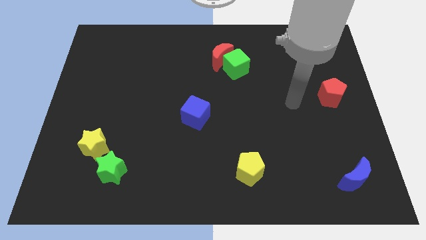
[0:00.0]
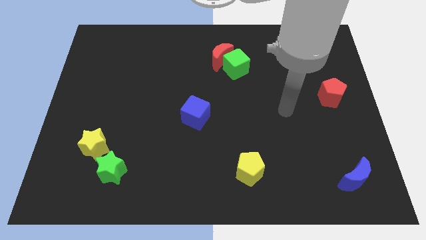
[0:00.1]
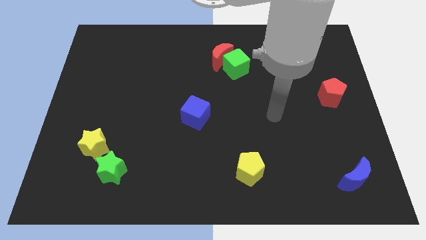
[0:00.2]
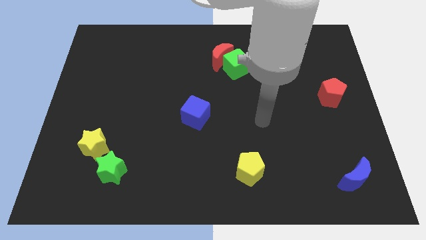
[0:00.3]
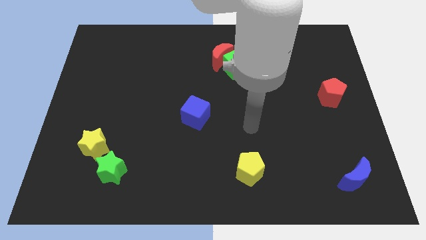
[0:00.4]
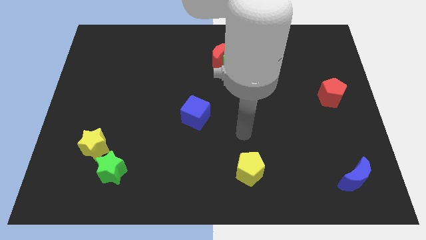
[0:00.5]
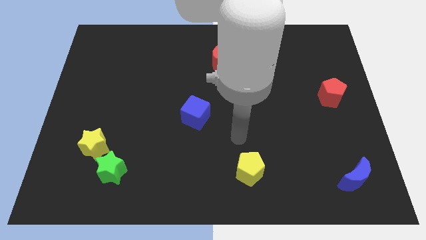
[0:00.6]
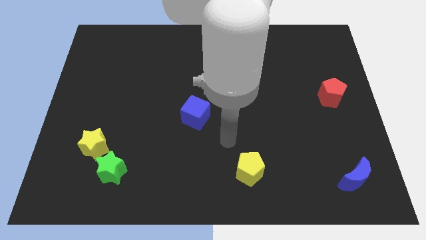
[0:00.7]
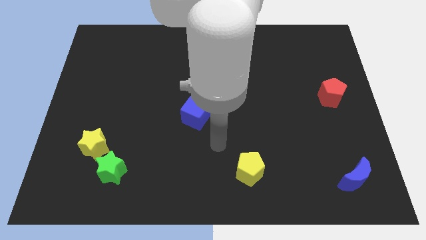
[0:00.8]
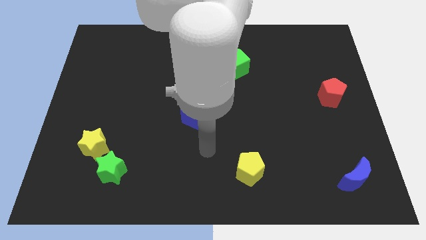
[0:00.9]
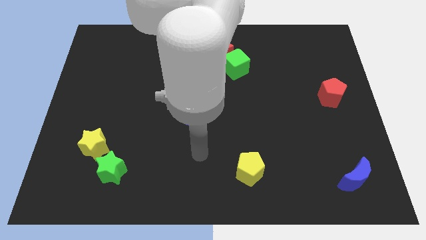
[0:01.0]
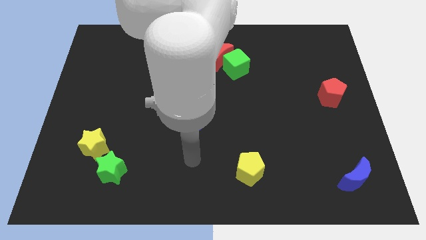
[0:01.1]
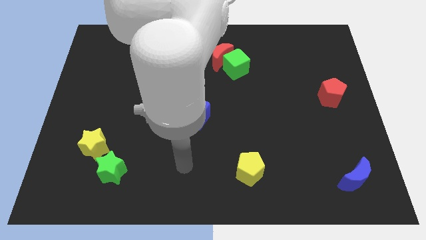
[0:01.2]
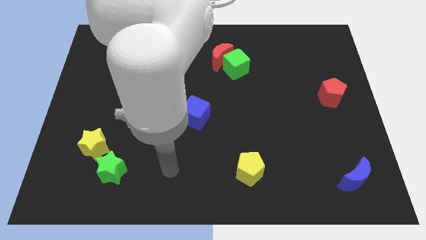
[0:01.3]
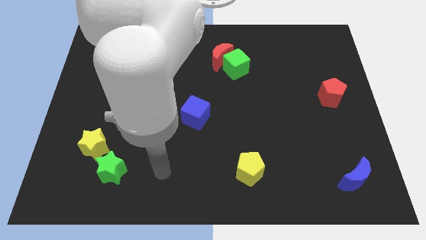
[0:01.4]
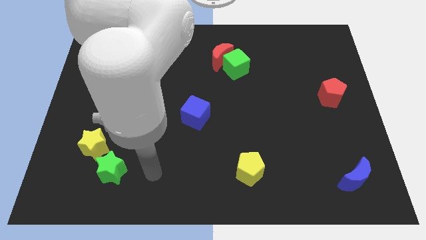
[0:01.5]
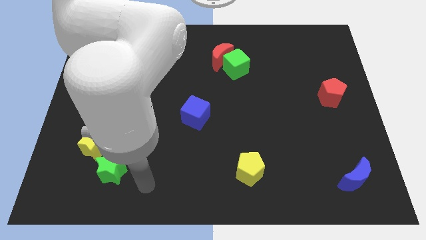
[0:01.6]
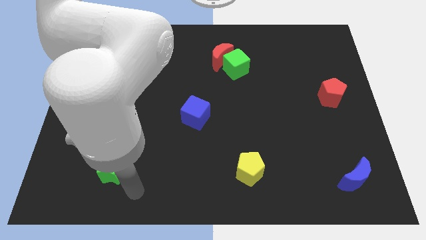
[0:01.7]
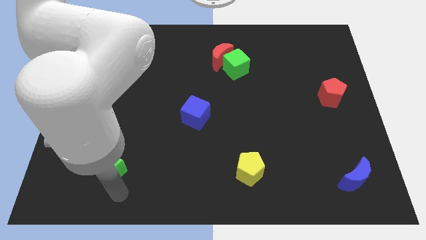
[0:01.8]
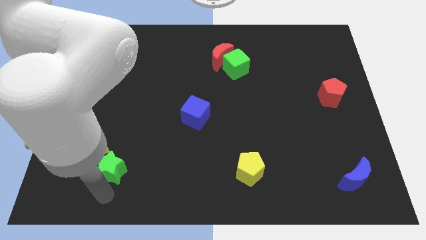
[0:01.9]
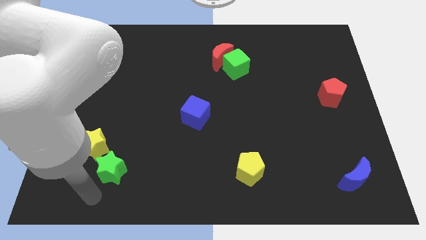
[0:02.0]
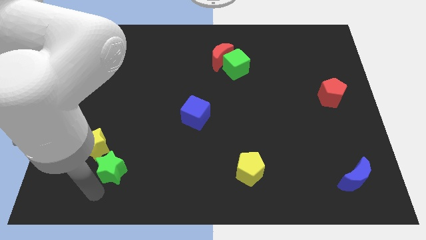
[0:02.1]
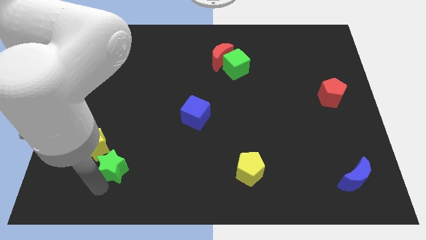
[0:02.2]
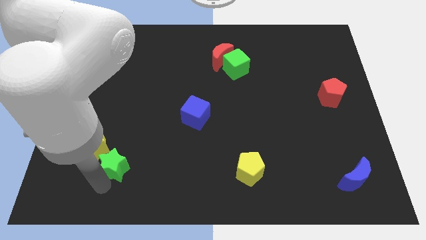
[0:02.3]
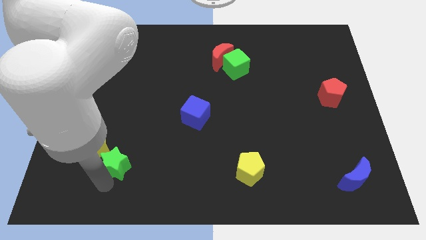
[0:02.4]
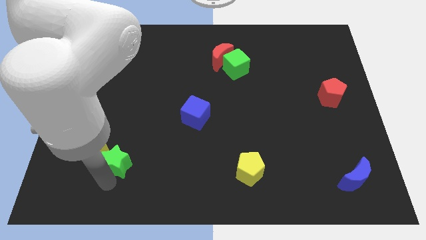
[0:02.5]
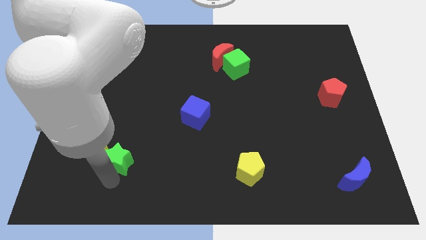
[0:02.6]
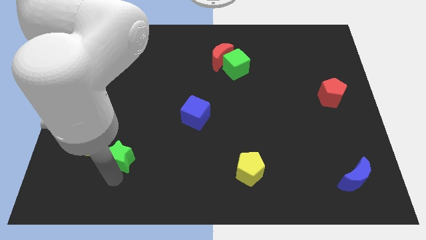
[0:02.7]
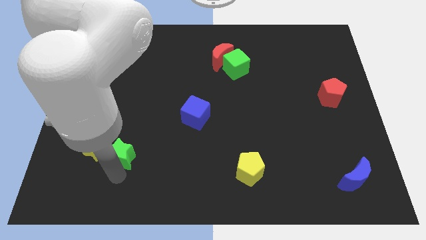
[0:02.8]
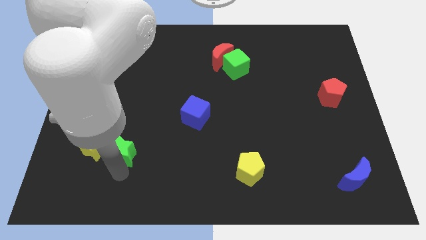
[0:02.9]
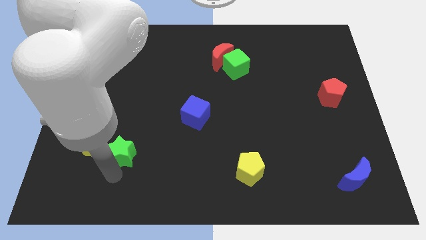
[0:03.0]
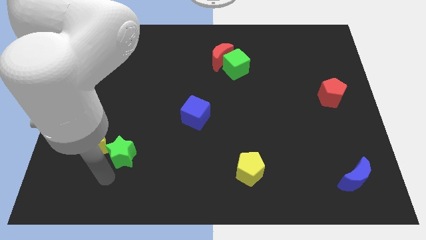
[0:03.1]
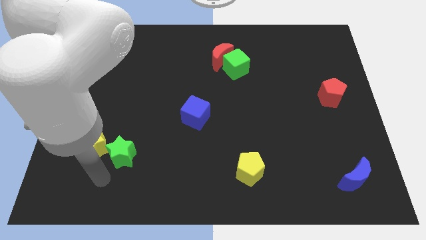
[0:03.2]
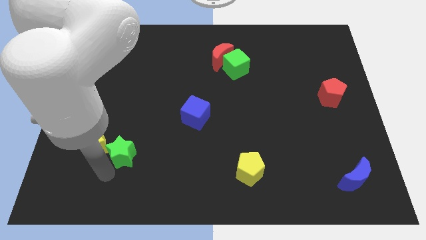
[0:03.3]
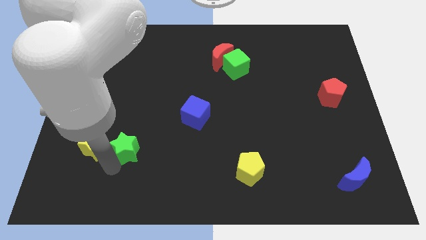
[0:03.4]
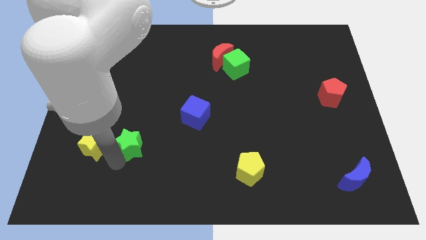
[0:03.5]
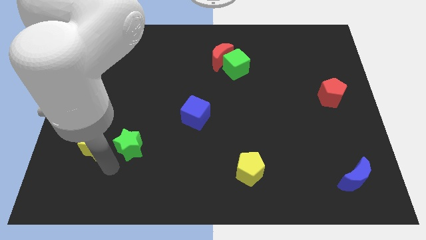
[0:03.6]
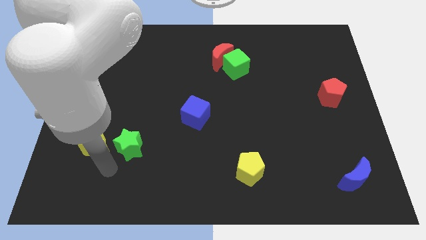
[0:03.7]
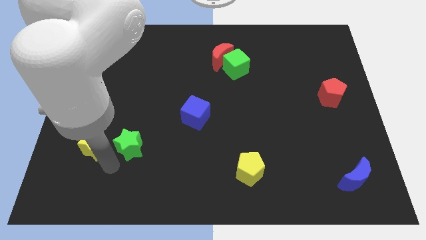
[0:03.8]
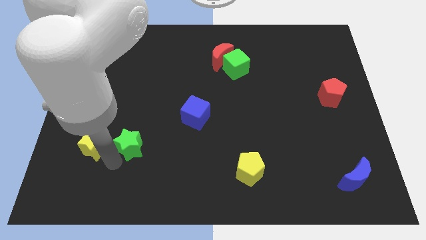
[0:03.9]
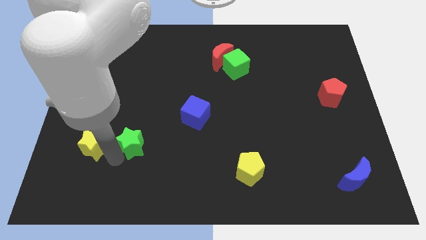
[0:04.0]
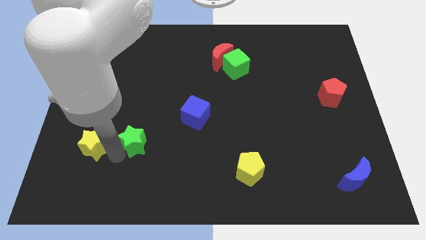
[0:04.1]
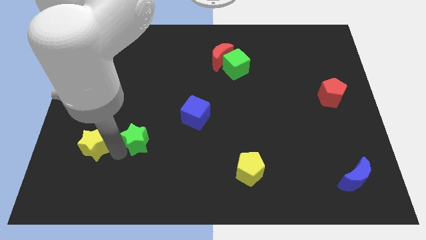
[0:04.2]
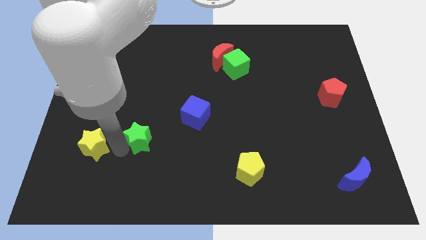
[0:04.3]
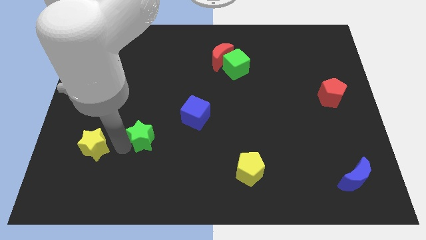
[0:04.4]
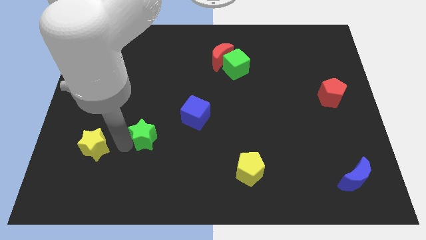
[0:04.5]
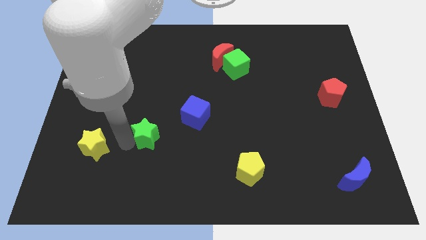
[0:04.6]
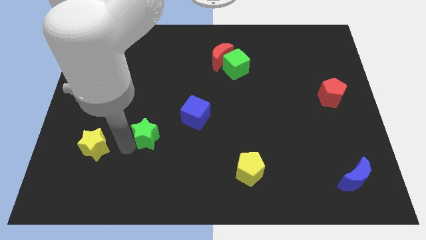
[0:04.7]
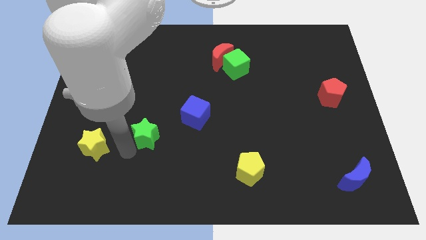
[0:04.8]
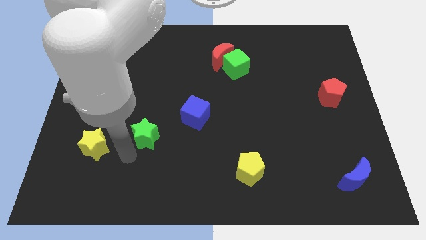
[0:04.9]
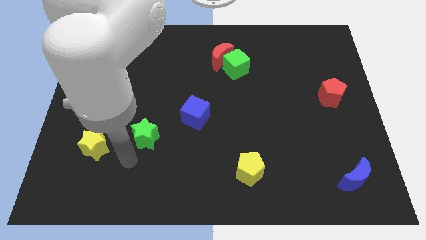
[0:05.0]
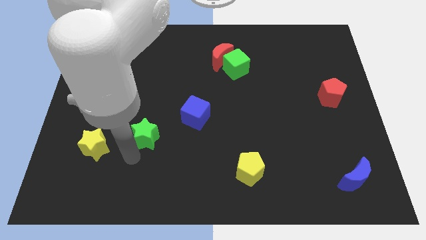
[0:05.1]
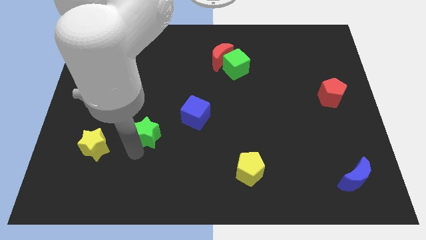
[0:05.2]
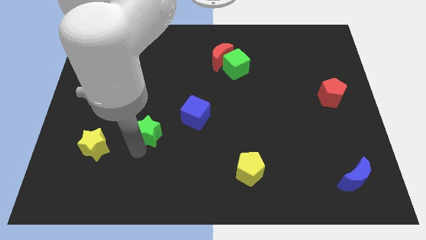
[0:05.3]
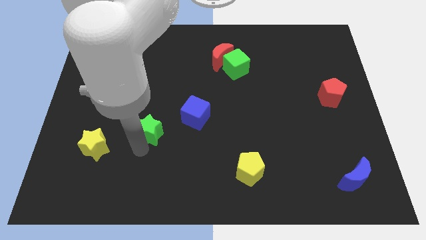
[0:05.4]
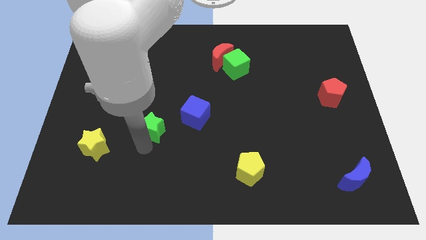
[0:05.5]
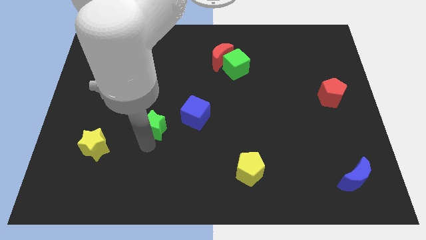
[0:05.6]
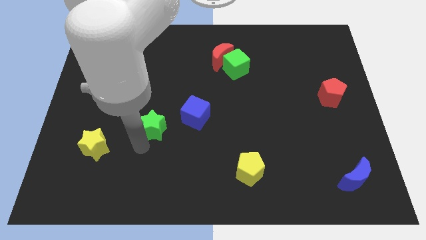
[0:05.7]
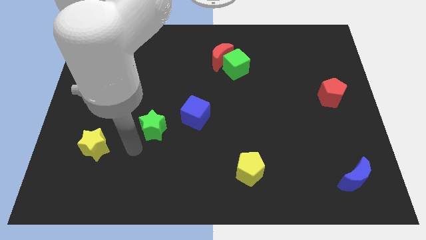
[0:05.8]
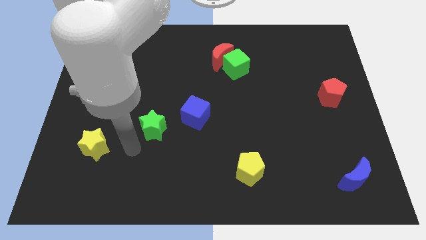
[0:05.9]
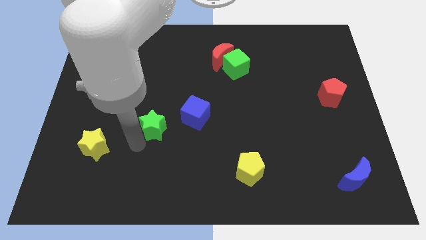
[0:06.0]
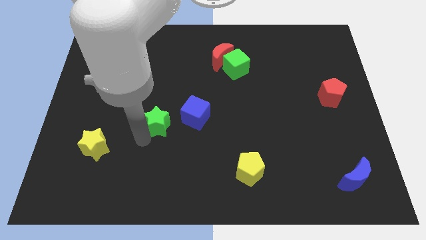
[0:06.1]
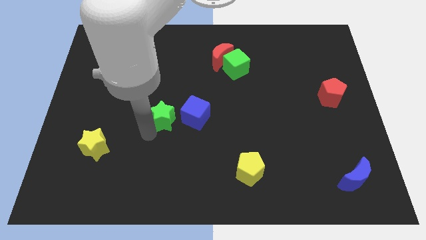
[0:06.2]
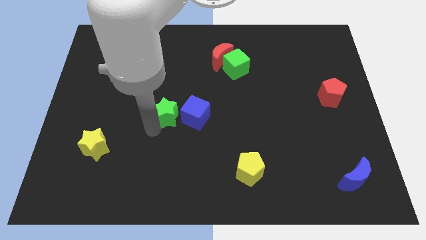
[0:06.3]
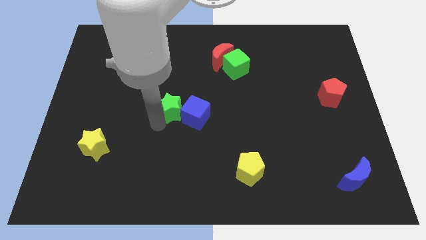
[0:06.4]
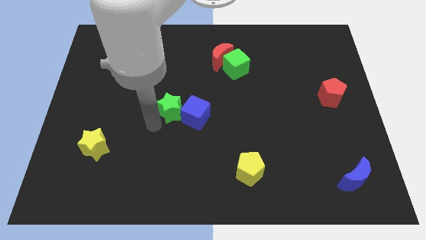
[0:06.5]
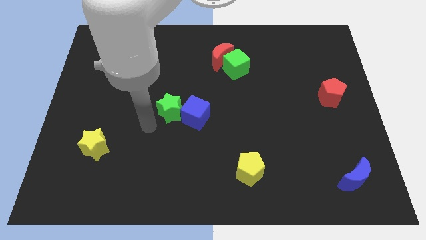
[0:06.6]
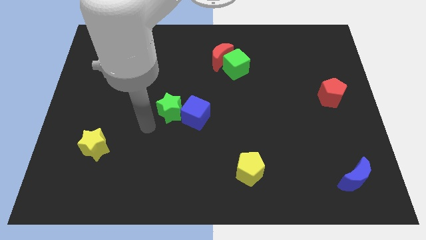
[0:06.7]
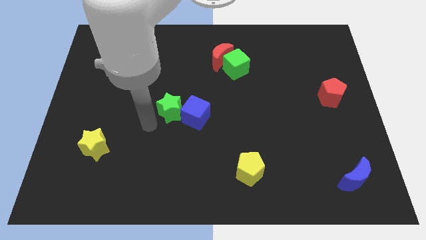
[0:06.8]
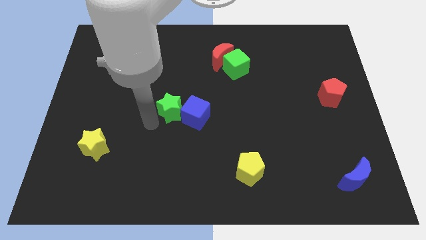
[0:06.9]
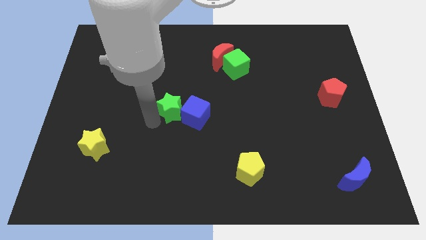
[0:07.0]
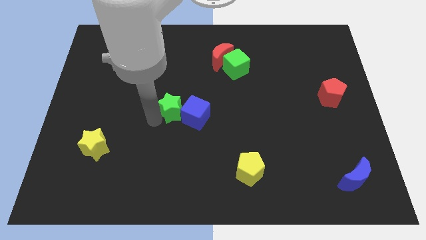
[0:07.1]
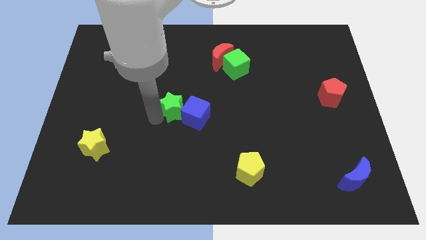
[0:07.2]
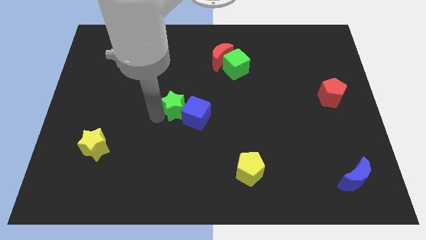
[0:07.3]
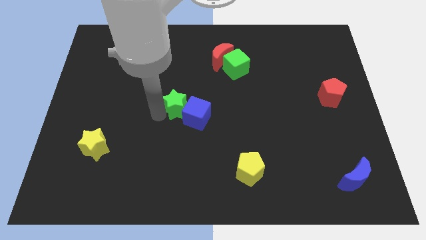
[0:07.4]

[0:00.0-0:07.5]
slide the green star upwards and then right

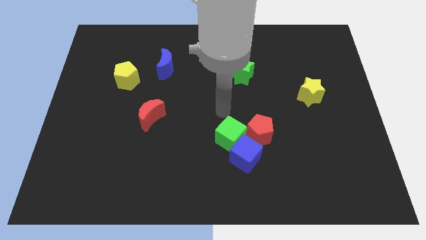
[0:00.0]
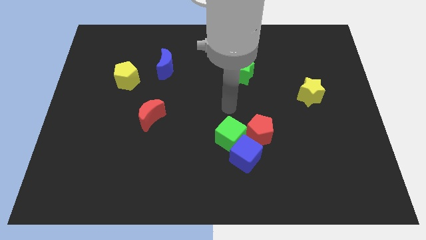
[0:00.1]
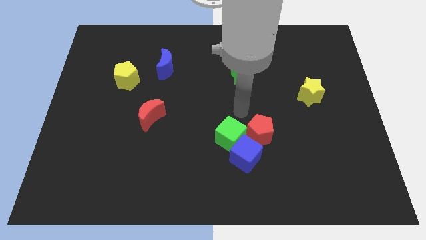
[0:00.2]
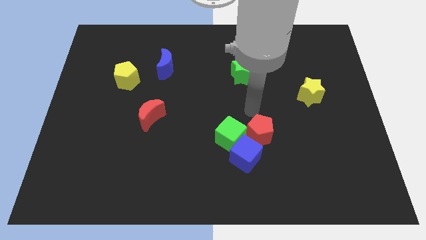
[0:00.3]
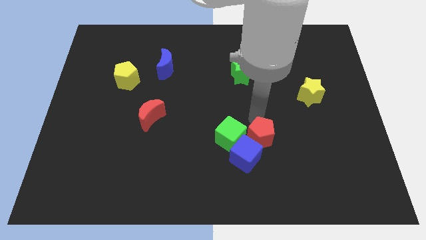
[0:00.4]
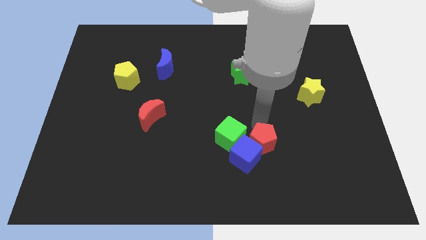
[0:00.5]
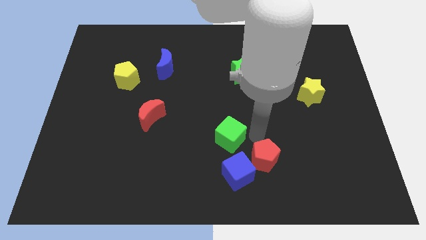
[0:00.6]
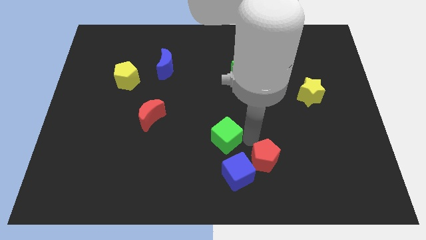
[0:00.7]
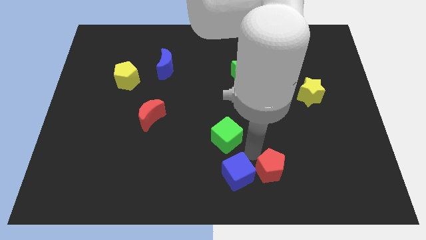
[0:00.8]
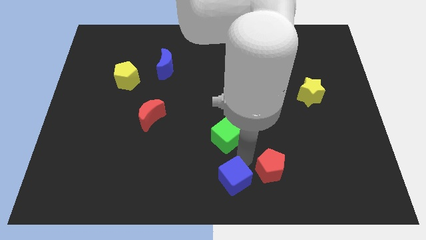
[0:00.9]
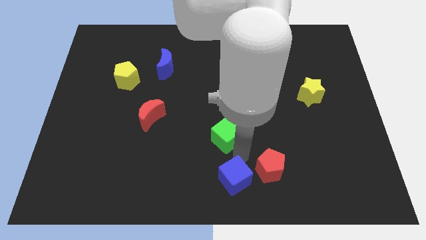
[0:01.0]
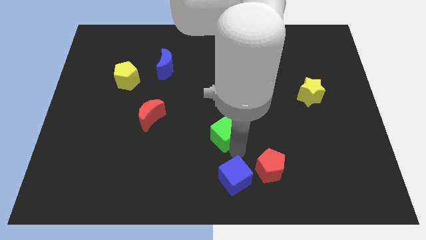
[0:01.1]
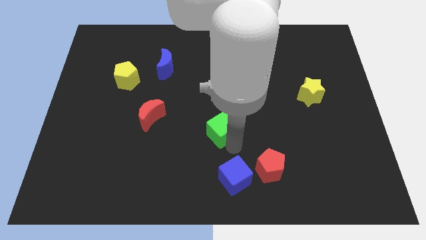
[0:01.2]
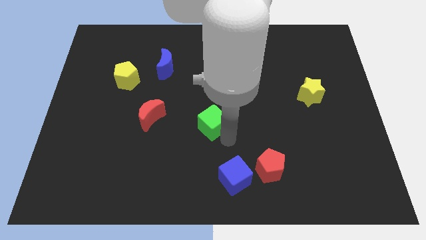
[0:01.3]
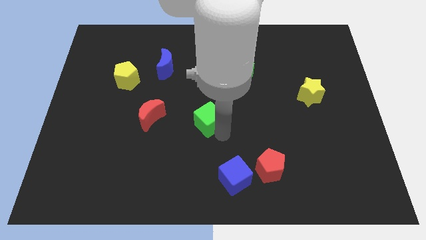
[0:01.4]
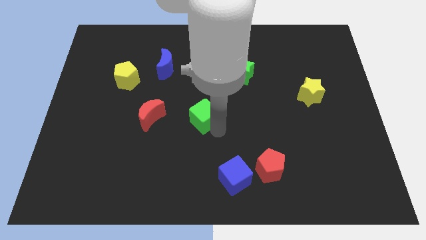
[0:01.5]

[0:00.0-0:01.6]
push the green cube up and to the left a little bit
